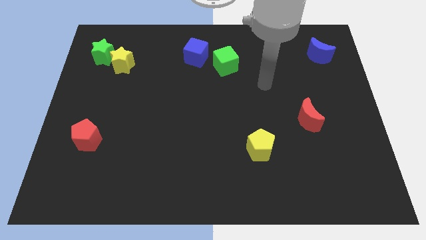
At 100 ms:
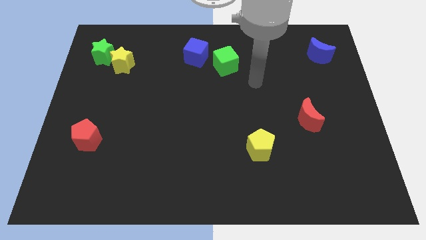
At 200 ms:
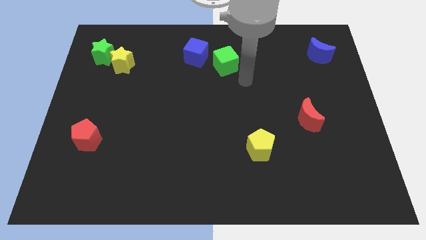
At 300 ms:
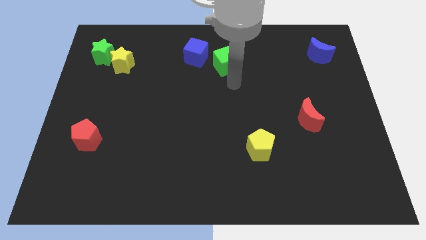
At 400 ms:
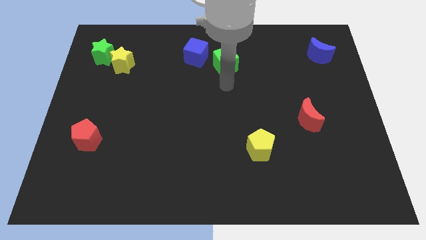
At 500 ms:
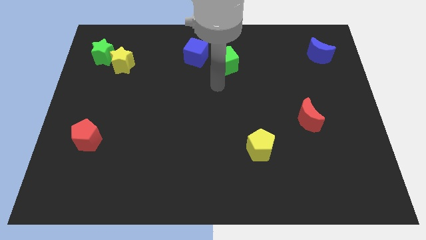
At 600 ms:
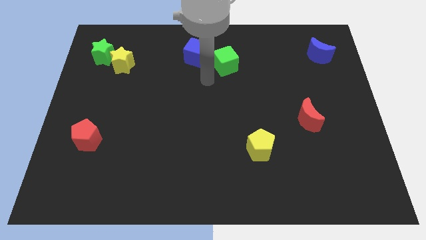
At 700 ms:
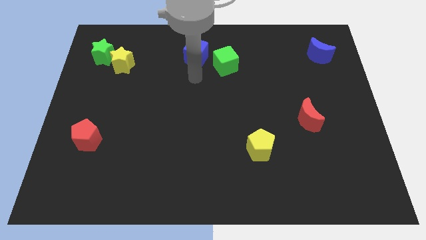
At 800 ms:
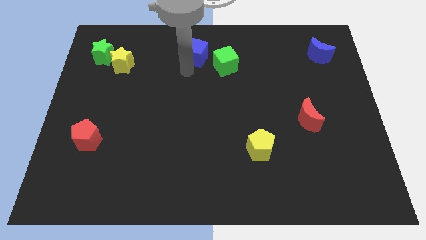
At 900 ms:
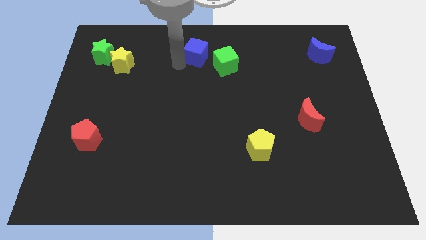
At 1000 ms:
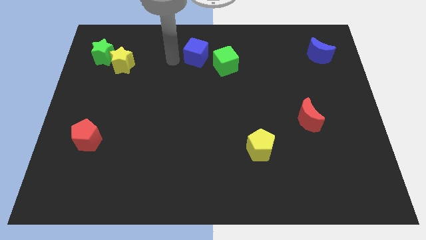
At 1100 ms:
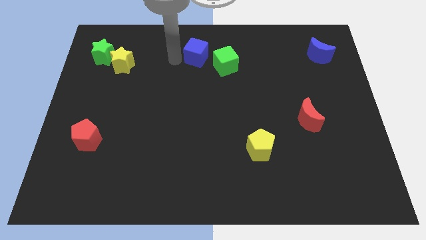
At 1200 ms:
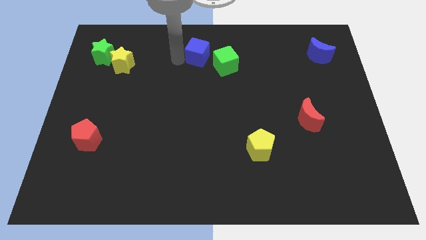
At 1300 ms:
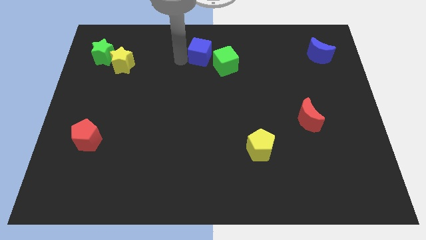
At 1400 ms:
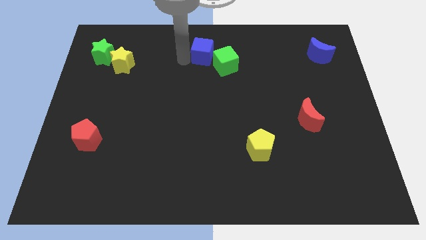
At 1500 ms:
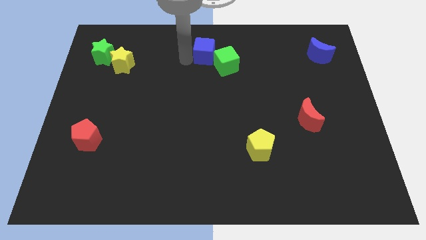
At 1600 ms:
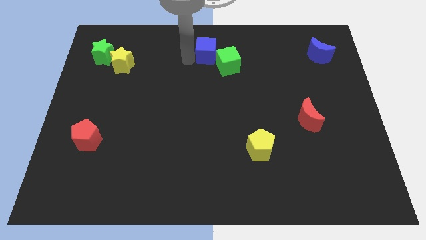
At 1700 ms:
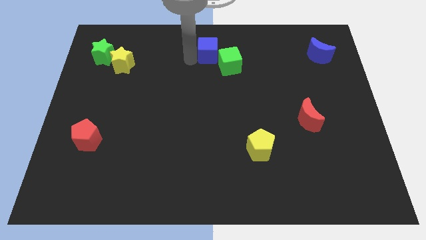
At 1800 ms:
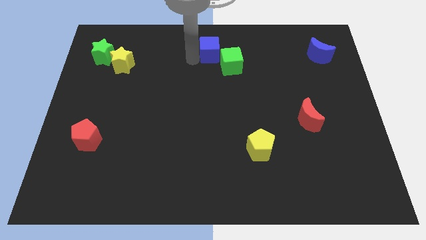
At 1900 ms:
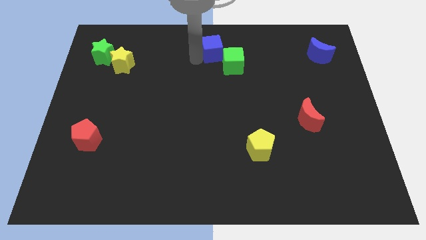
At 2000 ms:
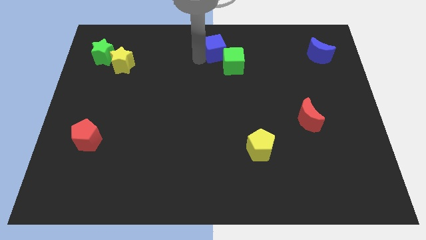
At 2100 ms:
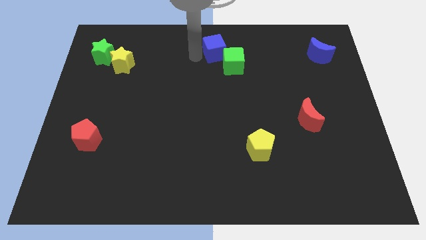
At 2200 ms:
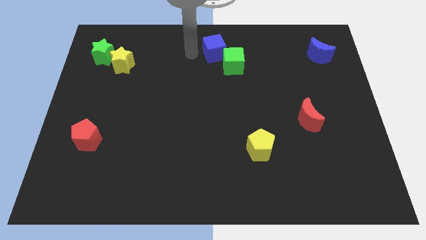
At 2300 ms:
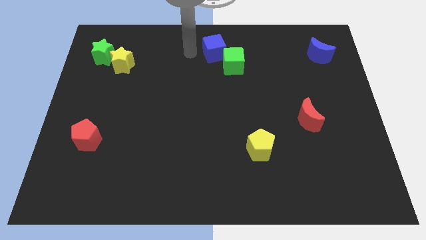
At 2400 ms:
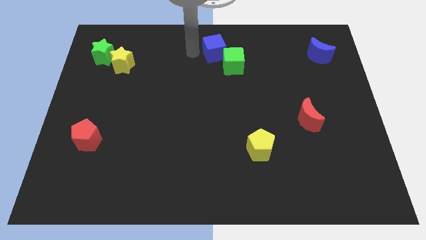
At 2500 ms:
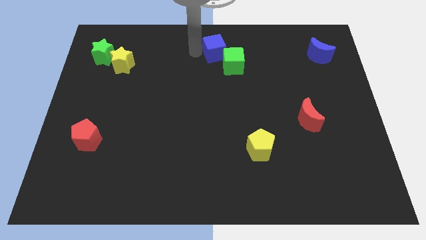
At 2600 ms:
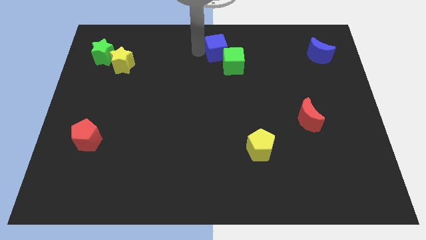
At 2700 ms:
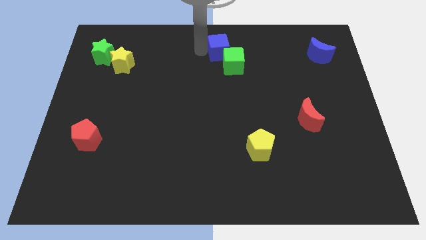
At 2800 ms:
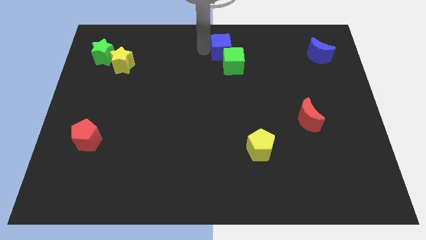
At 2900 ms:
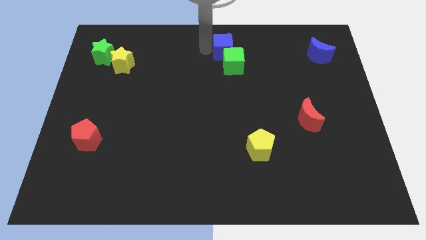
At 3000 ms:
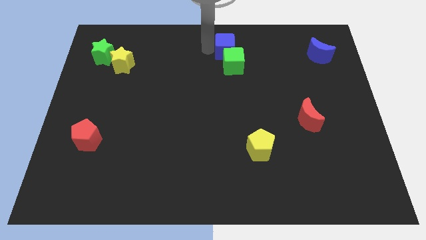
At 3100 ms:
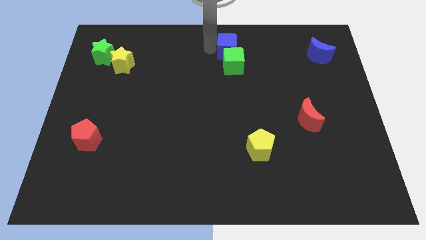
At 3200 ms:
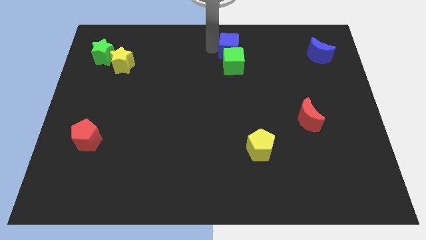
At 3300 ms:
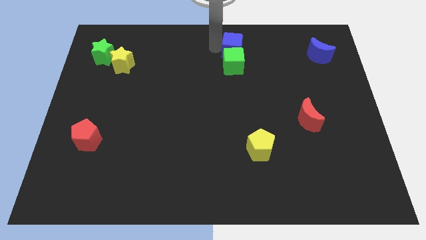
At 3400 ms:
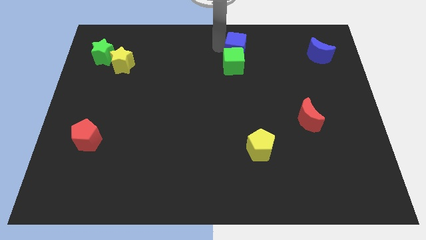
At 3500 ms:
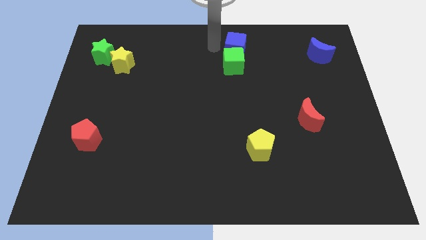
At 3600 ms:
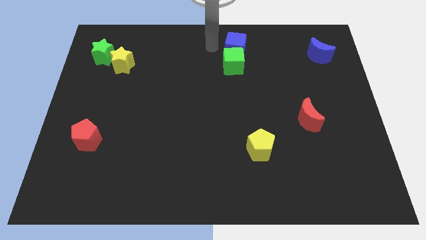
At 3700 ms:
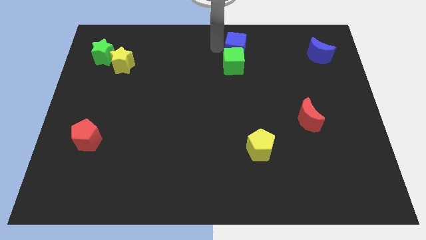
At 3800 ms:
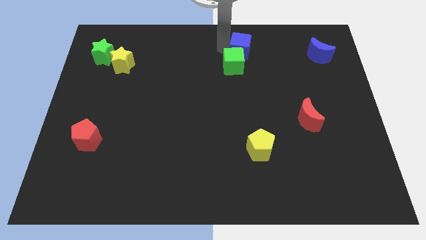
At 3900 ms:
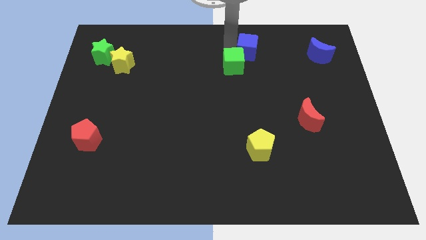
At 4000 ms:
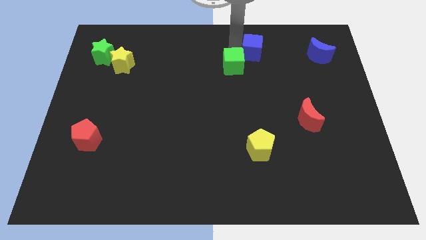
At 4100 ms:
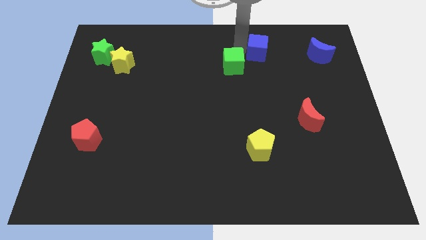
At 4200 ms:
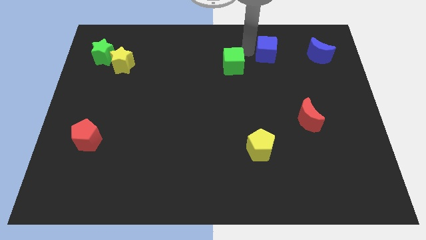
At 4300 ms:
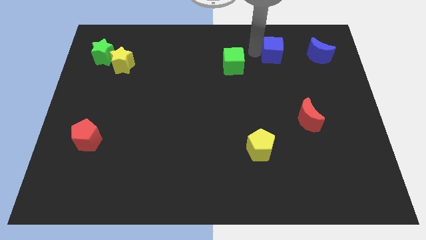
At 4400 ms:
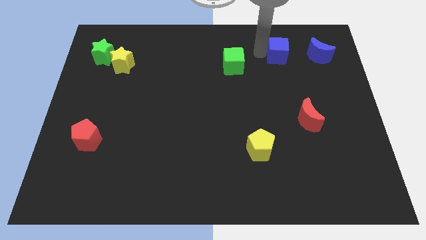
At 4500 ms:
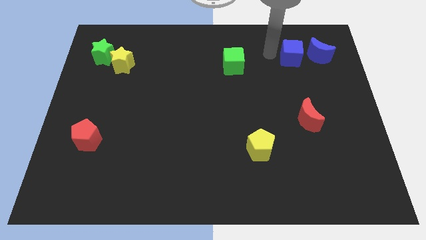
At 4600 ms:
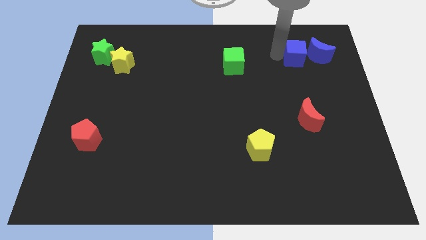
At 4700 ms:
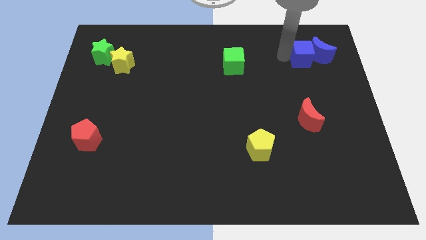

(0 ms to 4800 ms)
push the blue cube close to the blue moon

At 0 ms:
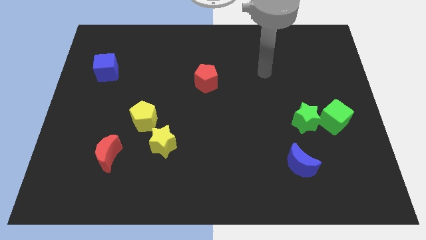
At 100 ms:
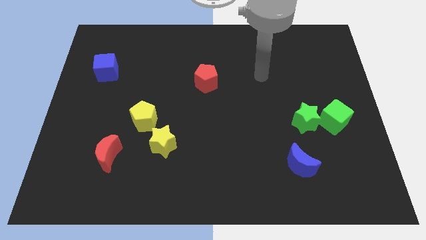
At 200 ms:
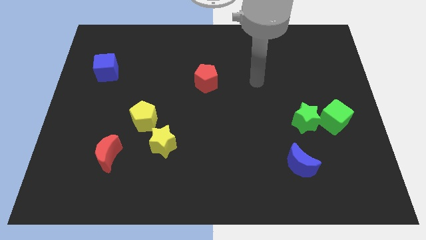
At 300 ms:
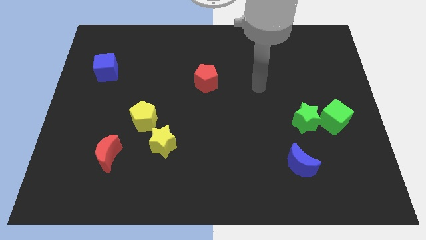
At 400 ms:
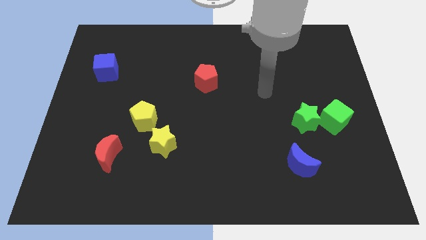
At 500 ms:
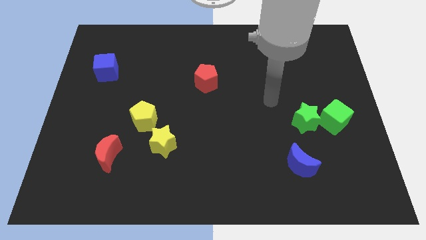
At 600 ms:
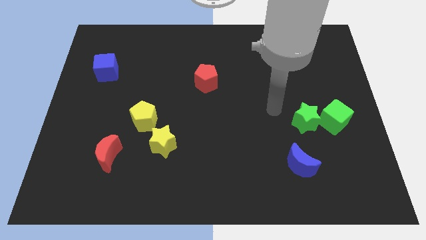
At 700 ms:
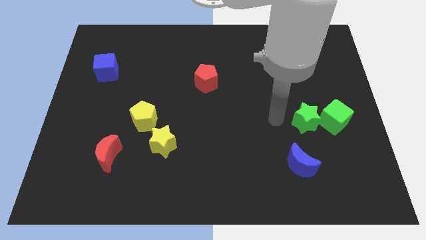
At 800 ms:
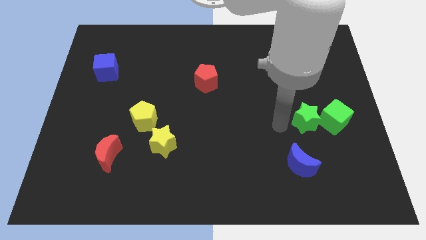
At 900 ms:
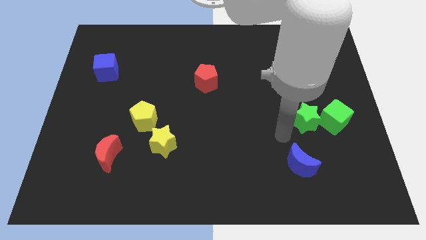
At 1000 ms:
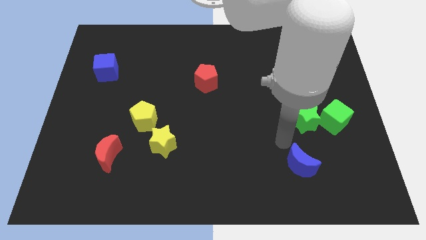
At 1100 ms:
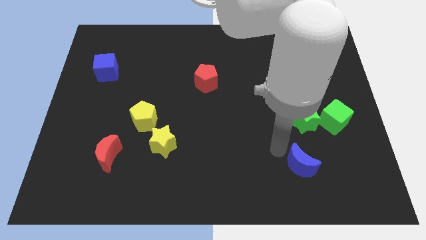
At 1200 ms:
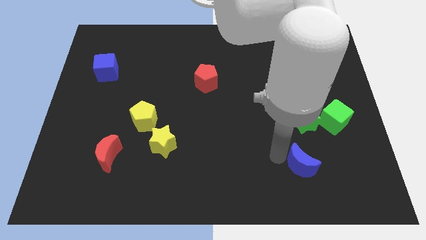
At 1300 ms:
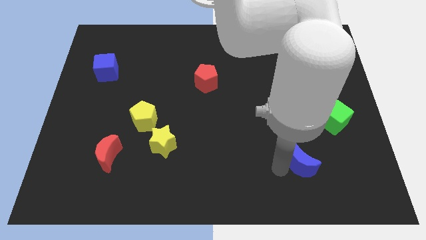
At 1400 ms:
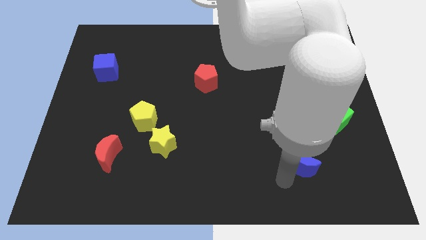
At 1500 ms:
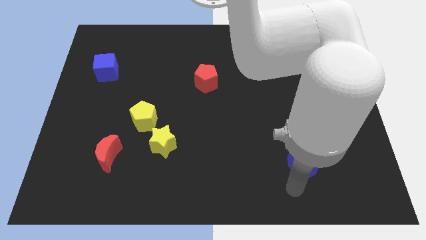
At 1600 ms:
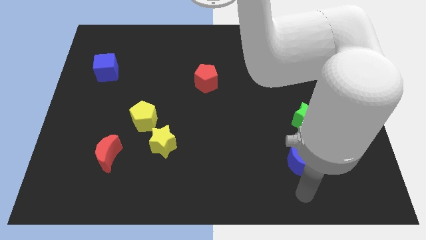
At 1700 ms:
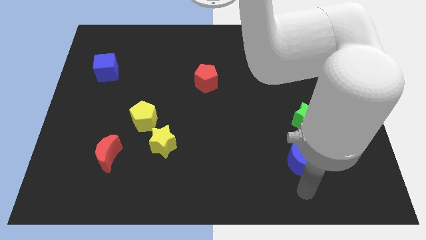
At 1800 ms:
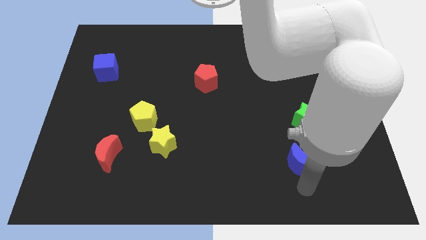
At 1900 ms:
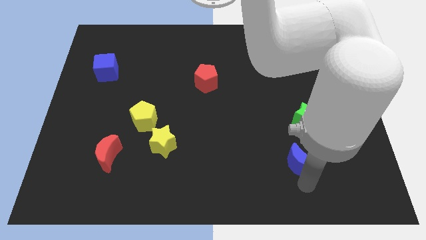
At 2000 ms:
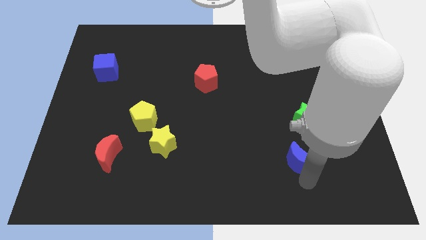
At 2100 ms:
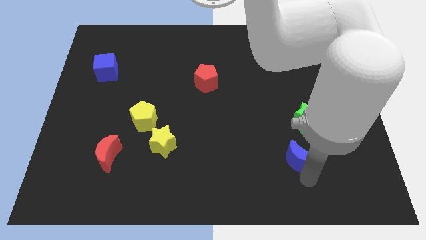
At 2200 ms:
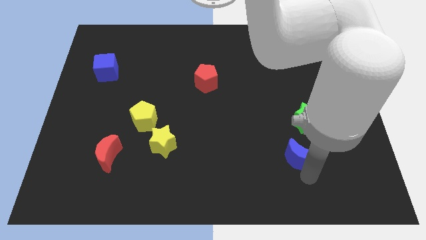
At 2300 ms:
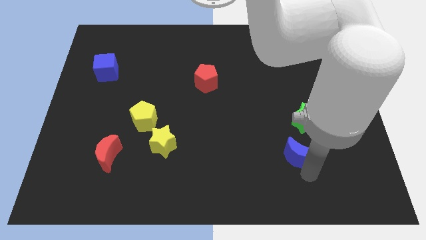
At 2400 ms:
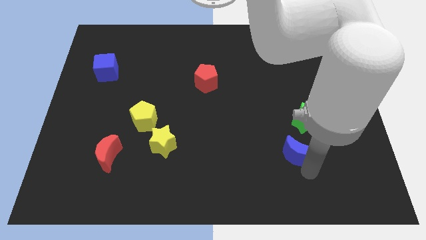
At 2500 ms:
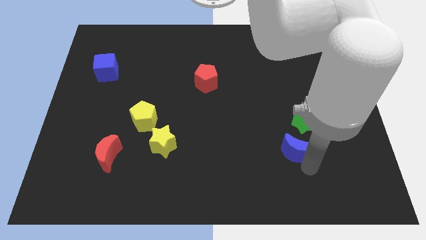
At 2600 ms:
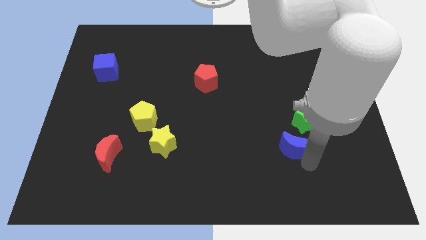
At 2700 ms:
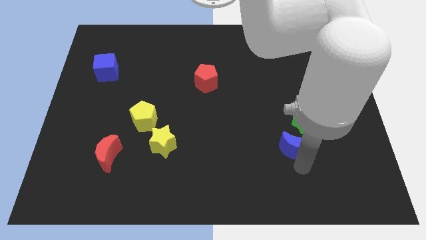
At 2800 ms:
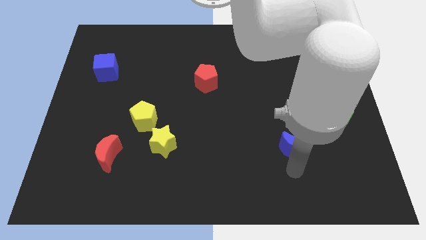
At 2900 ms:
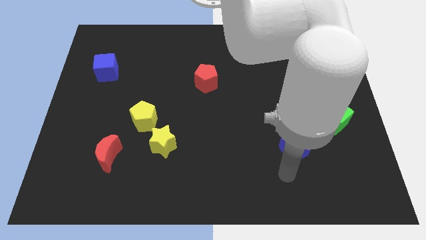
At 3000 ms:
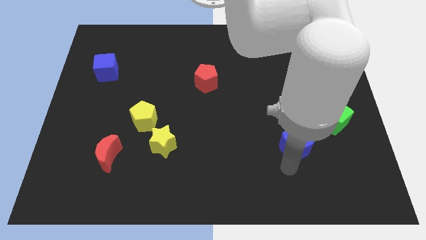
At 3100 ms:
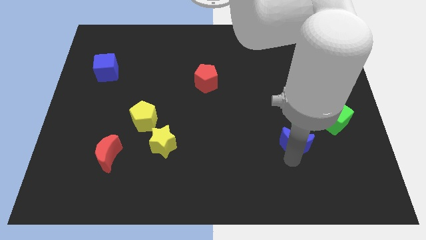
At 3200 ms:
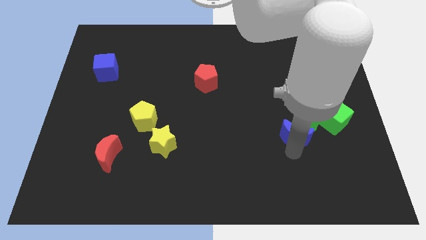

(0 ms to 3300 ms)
push the blue moon to the green star
